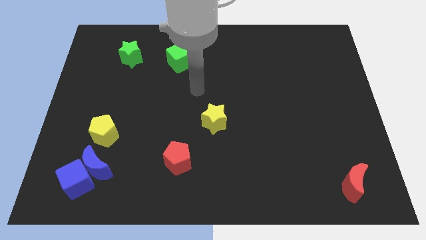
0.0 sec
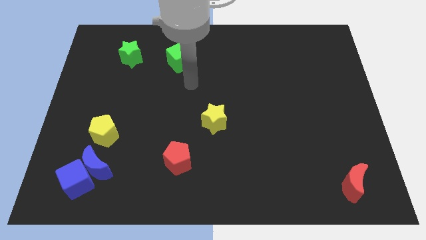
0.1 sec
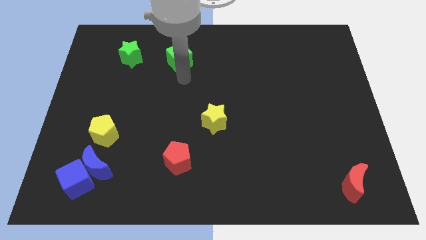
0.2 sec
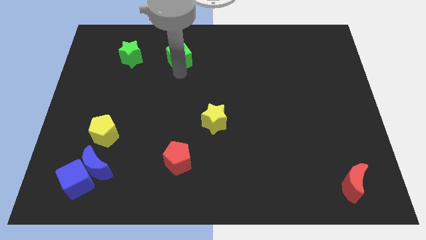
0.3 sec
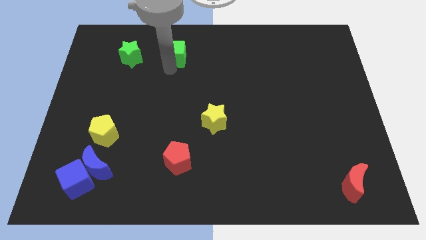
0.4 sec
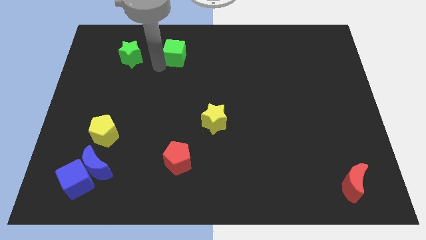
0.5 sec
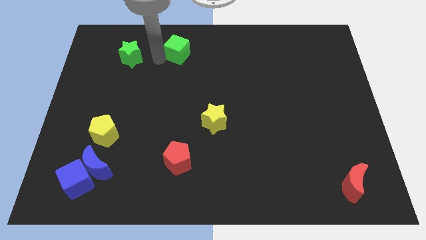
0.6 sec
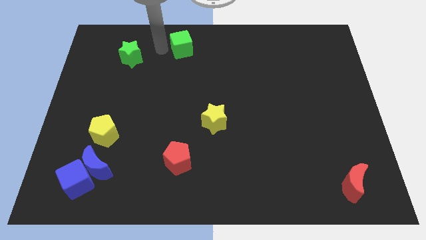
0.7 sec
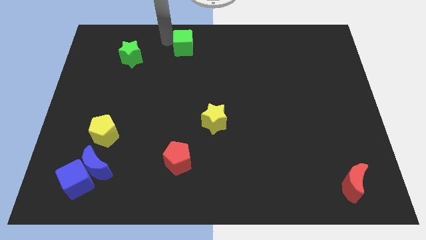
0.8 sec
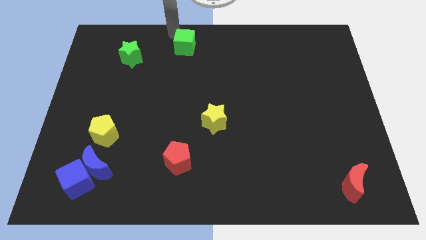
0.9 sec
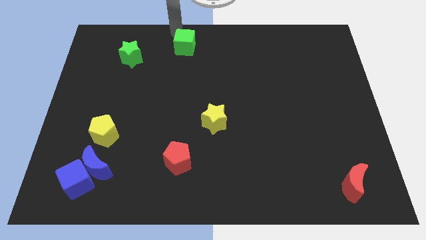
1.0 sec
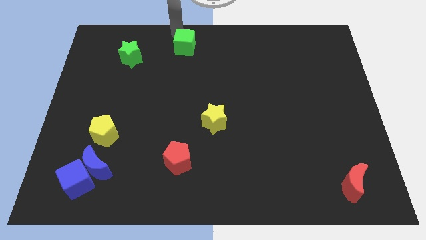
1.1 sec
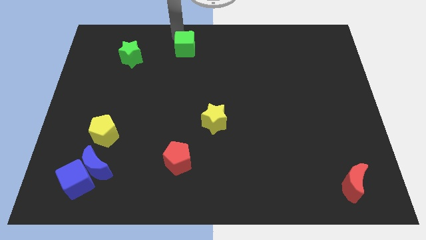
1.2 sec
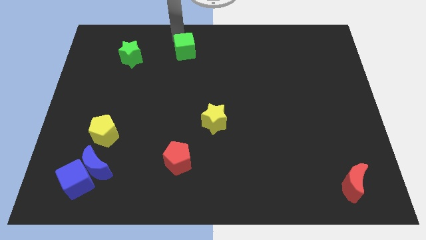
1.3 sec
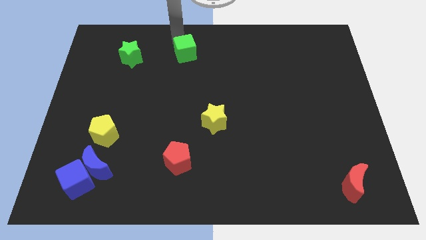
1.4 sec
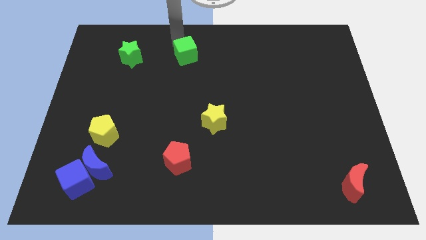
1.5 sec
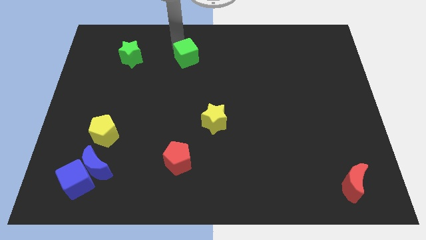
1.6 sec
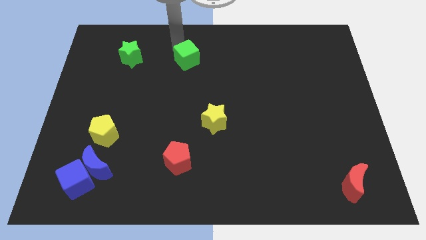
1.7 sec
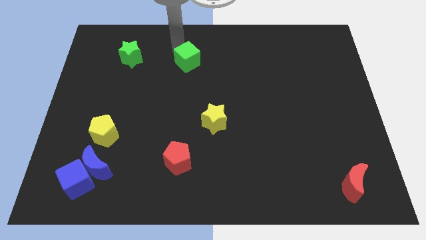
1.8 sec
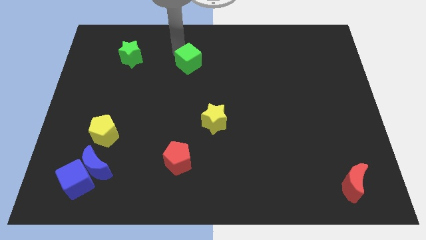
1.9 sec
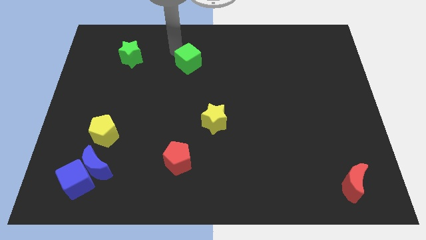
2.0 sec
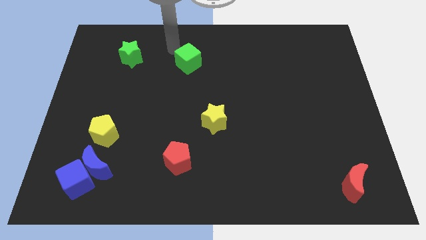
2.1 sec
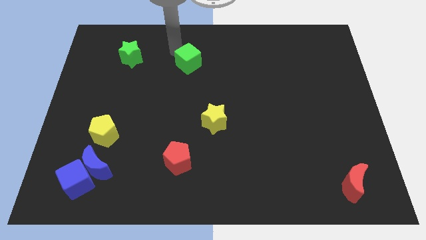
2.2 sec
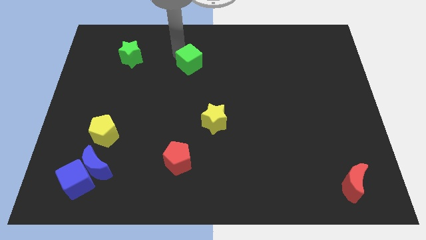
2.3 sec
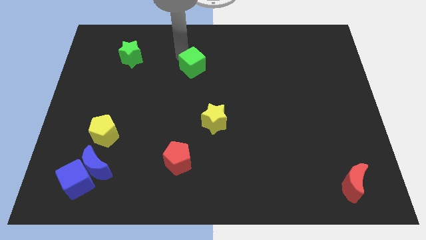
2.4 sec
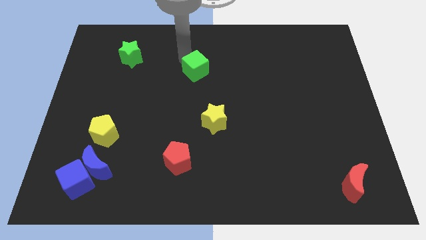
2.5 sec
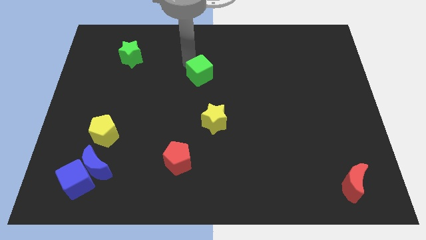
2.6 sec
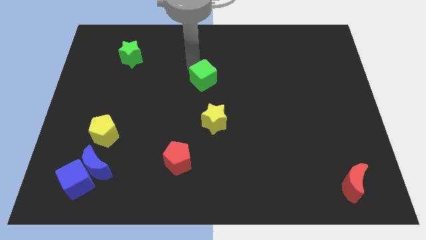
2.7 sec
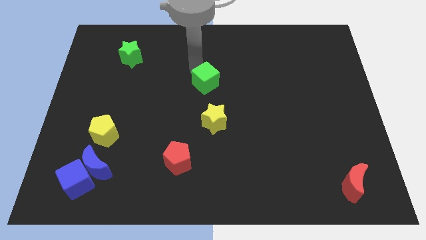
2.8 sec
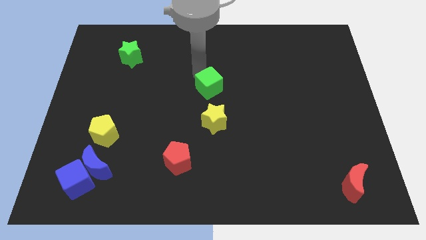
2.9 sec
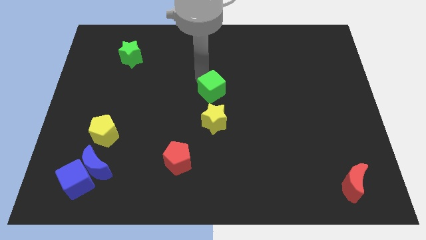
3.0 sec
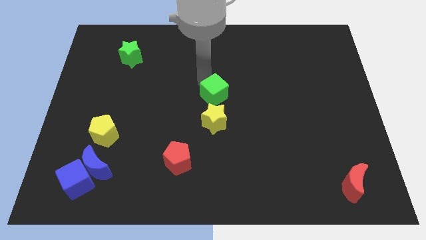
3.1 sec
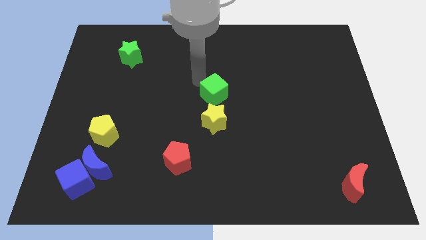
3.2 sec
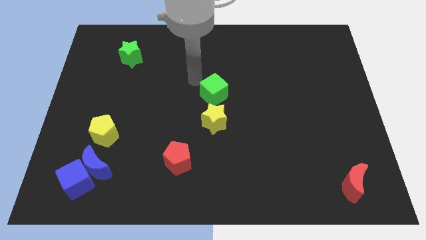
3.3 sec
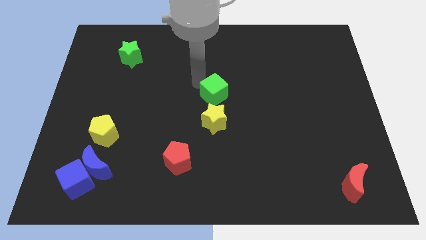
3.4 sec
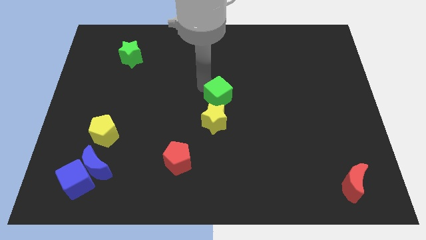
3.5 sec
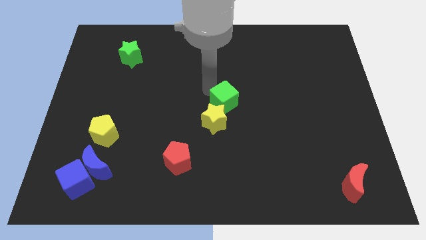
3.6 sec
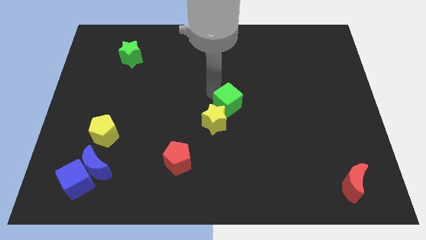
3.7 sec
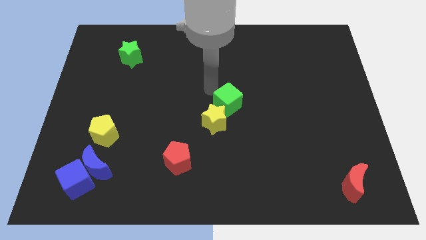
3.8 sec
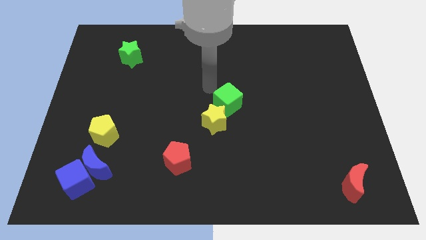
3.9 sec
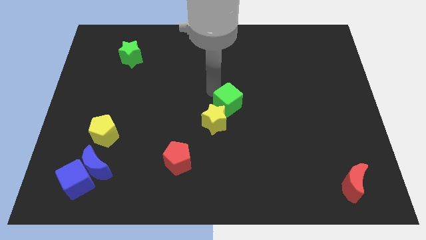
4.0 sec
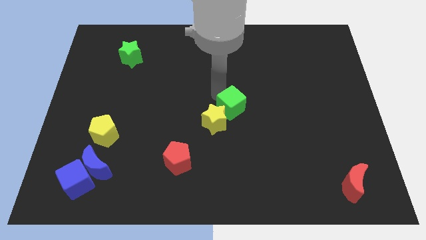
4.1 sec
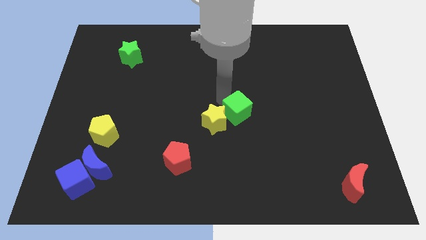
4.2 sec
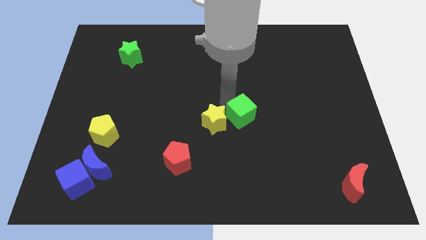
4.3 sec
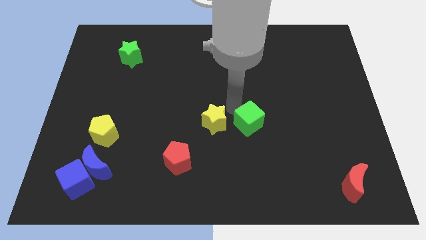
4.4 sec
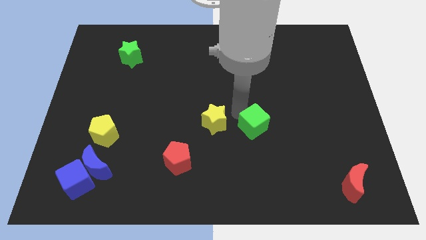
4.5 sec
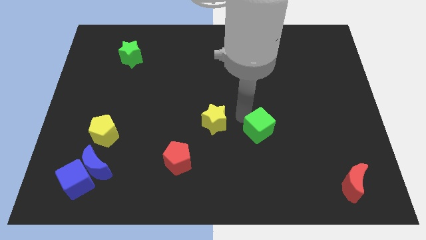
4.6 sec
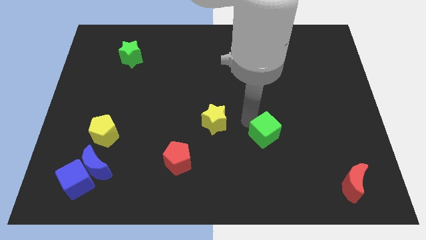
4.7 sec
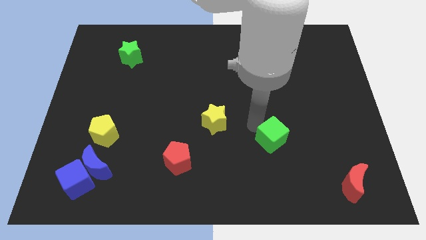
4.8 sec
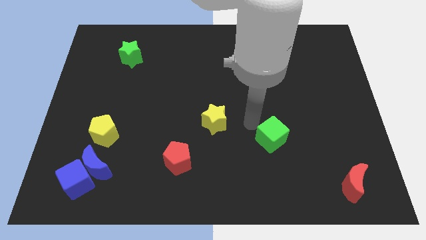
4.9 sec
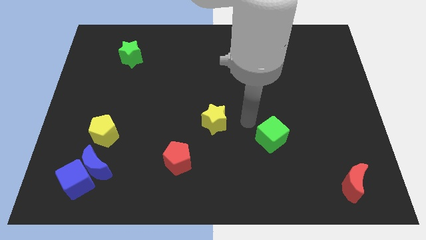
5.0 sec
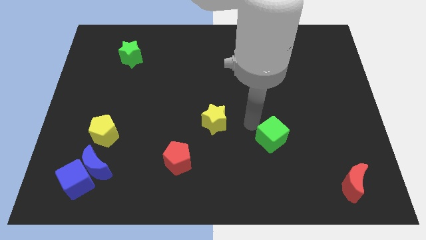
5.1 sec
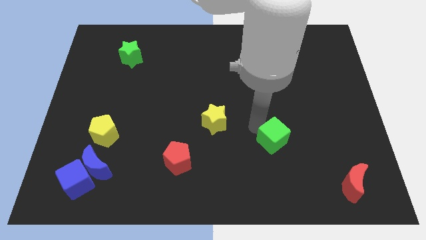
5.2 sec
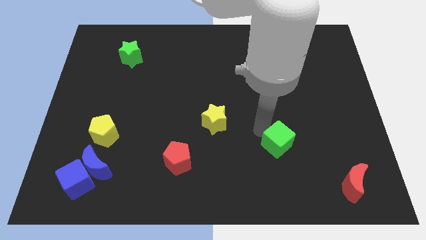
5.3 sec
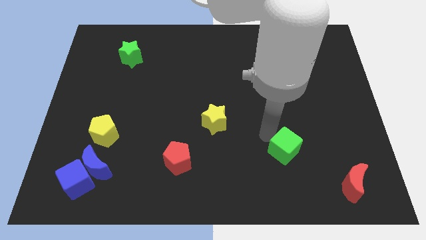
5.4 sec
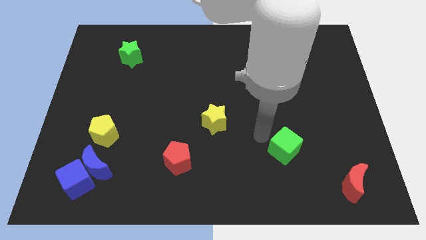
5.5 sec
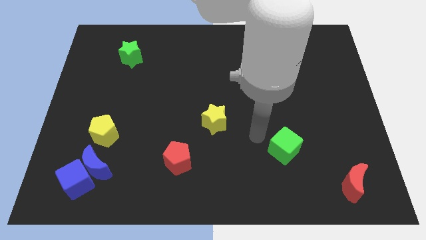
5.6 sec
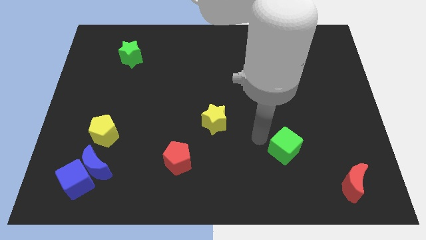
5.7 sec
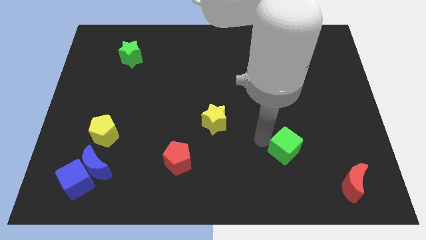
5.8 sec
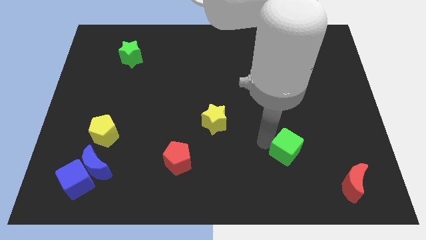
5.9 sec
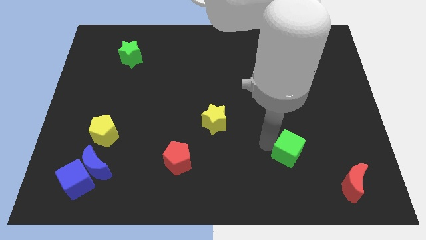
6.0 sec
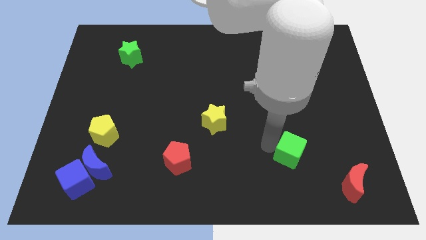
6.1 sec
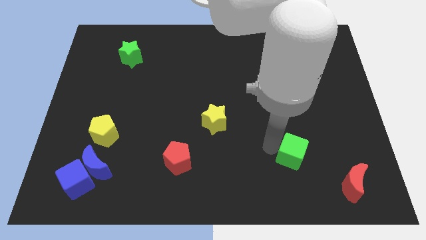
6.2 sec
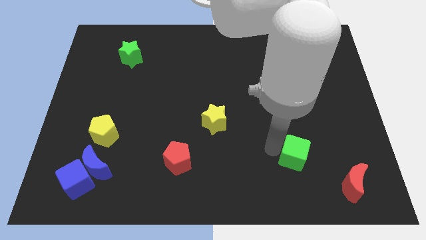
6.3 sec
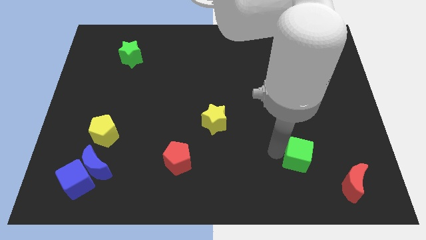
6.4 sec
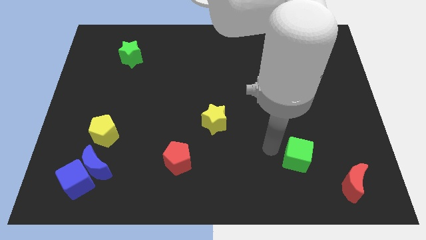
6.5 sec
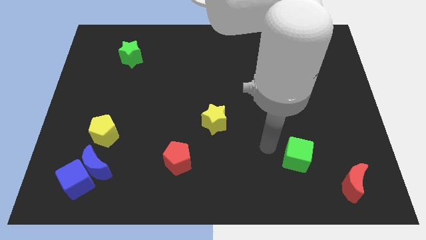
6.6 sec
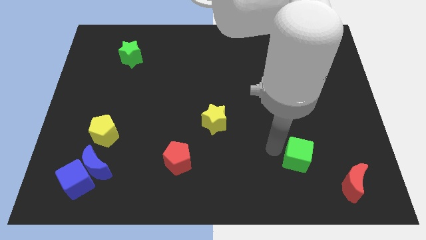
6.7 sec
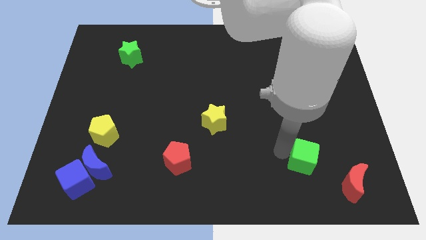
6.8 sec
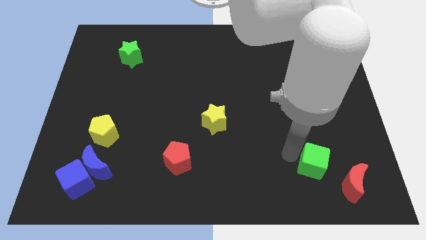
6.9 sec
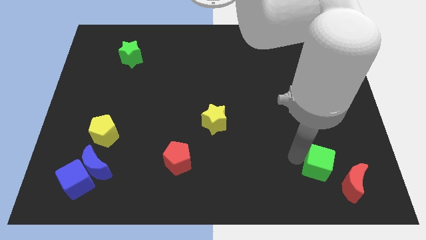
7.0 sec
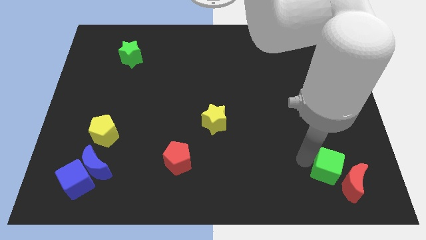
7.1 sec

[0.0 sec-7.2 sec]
push the green cube next to the red moon

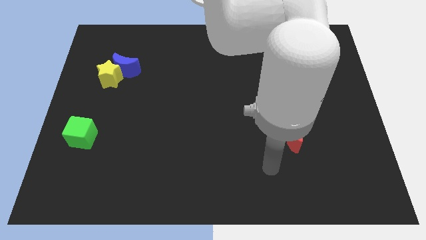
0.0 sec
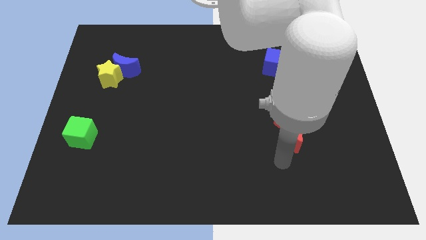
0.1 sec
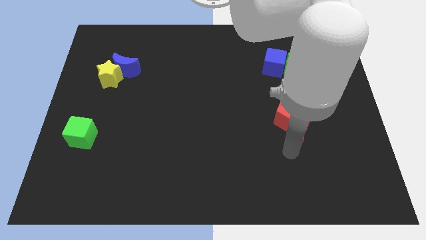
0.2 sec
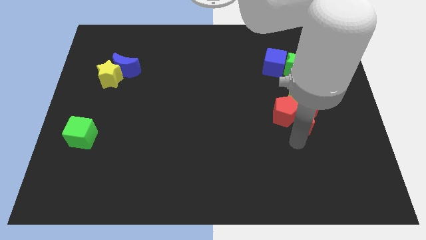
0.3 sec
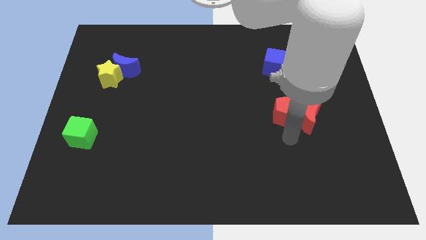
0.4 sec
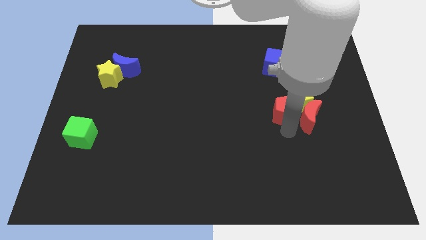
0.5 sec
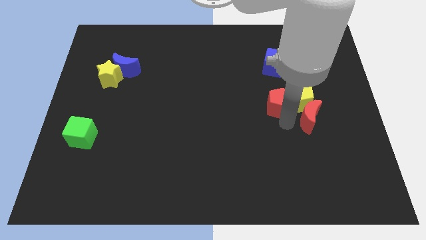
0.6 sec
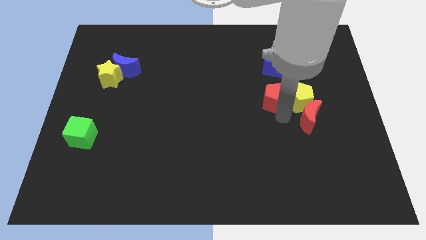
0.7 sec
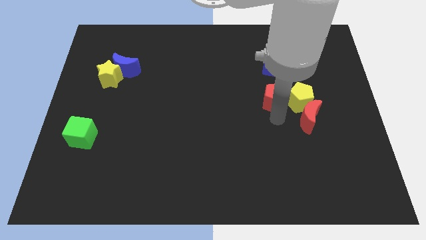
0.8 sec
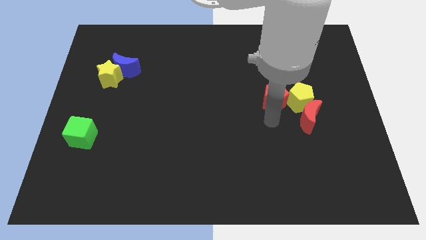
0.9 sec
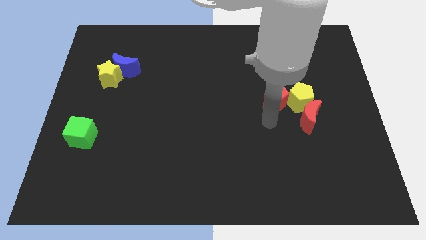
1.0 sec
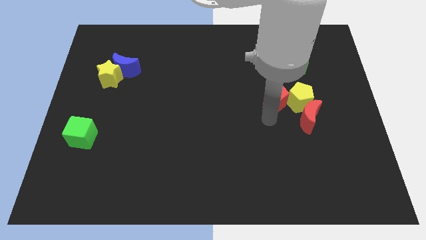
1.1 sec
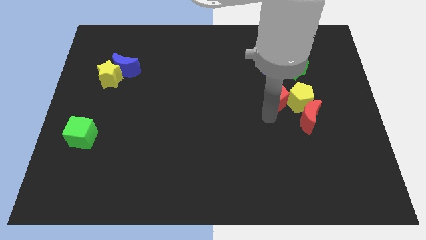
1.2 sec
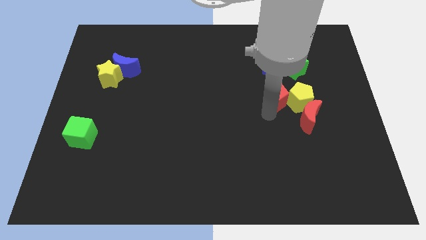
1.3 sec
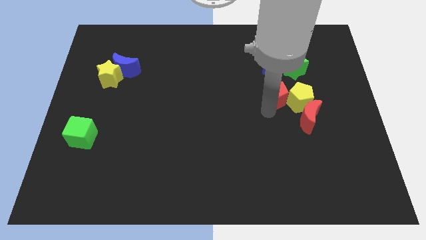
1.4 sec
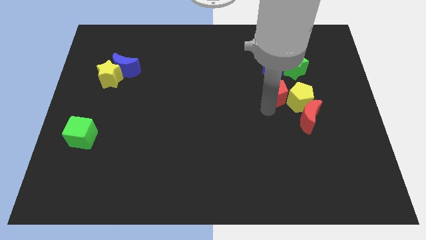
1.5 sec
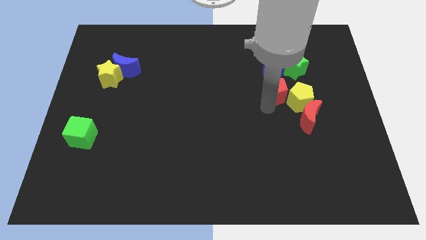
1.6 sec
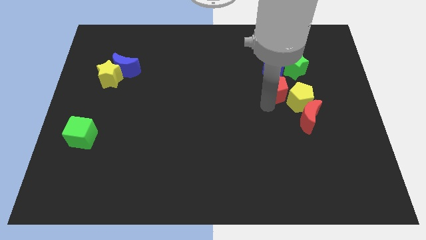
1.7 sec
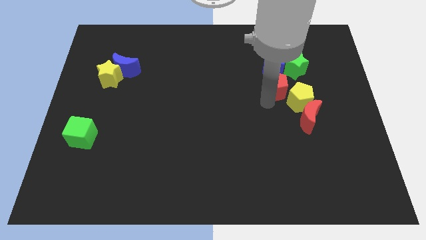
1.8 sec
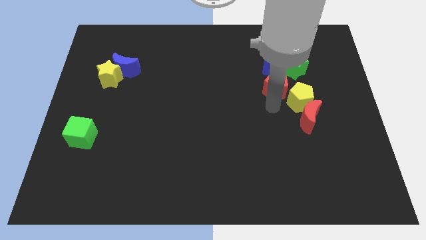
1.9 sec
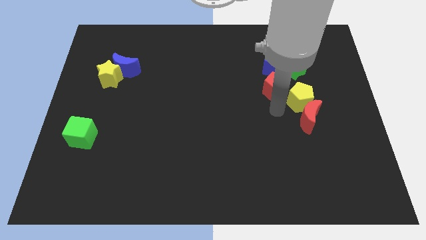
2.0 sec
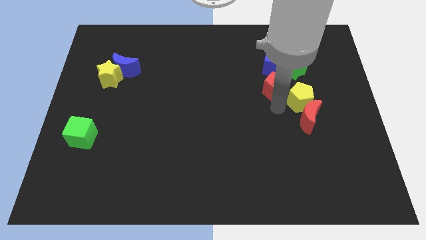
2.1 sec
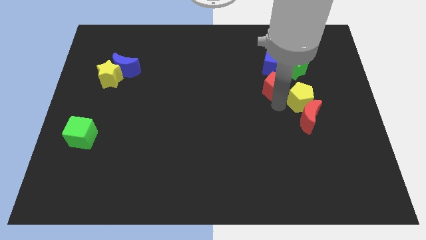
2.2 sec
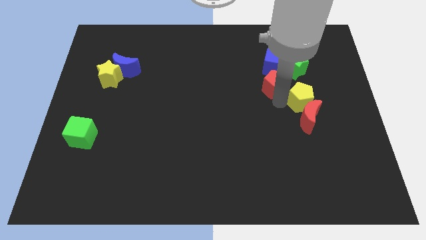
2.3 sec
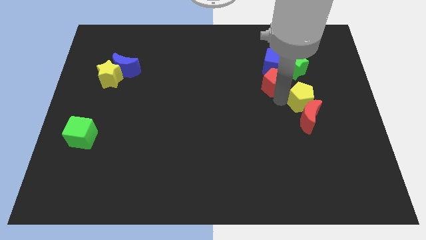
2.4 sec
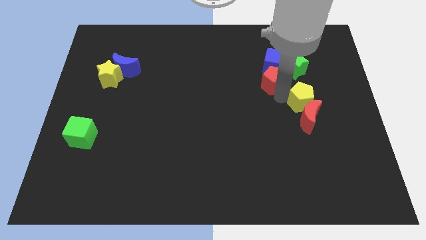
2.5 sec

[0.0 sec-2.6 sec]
push the red pentagon to the blue cube
